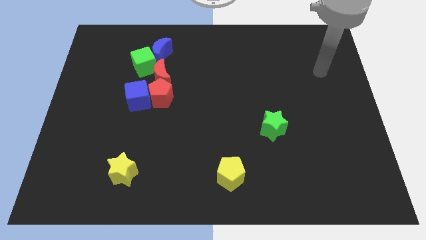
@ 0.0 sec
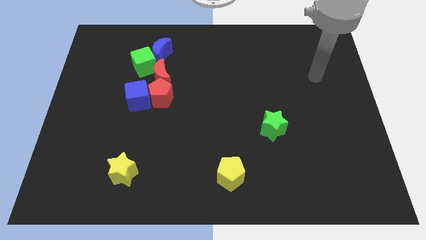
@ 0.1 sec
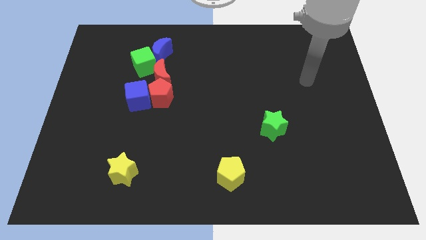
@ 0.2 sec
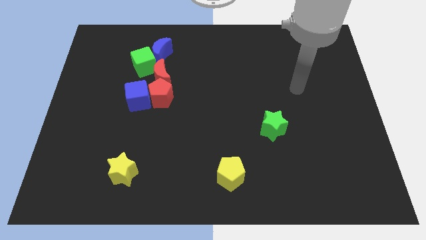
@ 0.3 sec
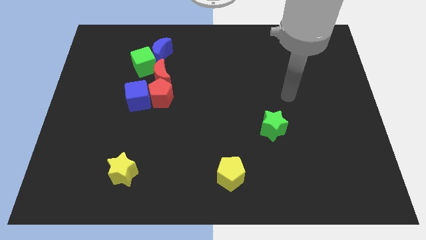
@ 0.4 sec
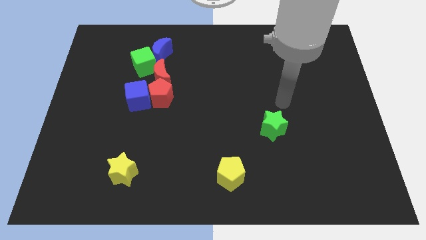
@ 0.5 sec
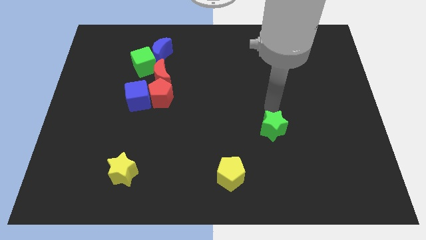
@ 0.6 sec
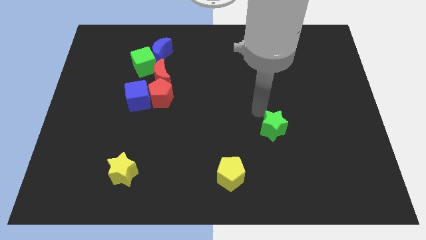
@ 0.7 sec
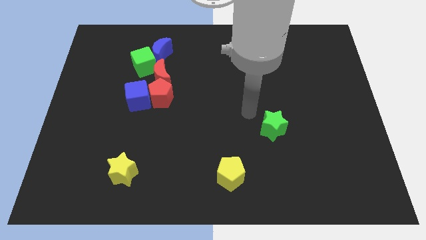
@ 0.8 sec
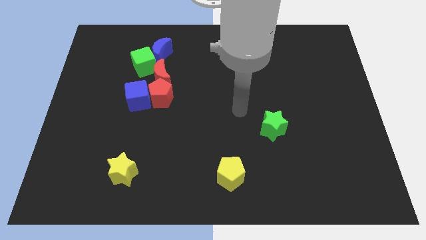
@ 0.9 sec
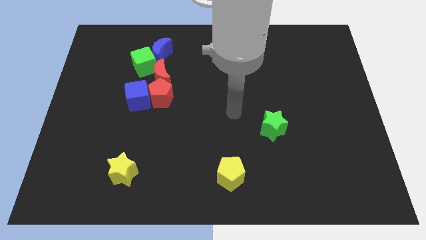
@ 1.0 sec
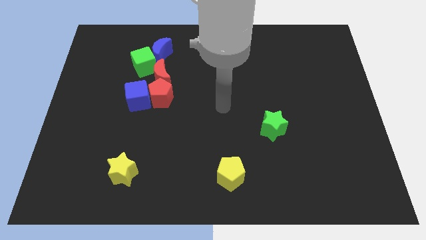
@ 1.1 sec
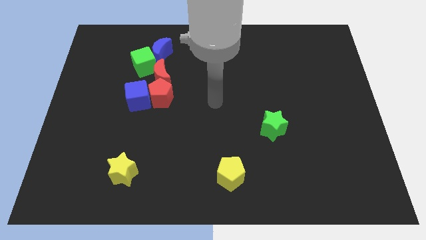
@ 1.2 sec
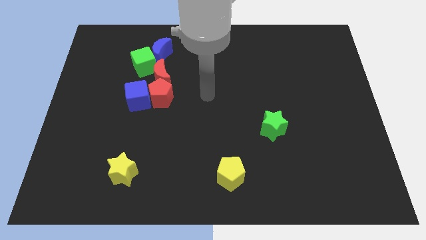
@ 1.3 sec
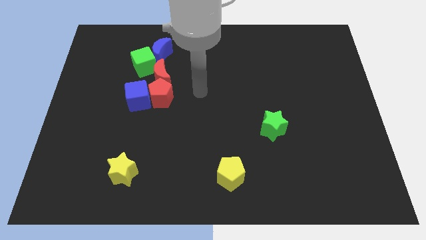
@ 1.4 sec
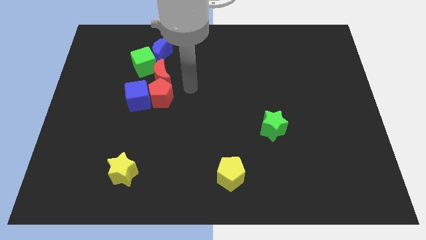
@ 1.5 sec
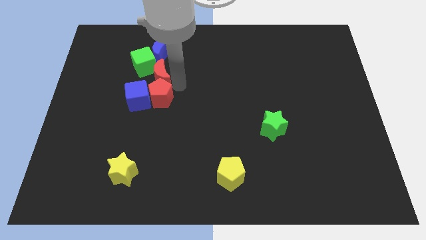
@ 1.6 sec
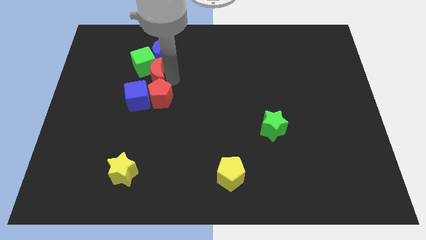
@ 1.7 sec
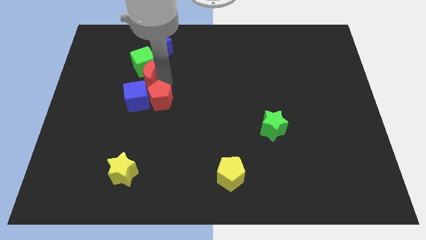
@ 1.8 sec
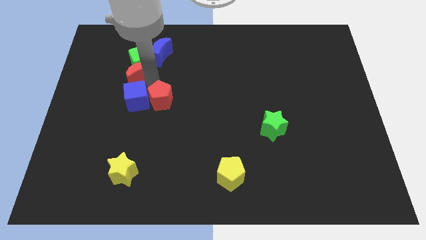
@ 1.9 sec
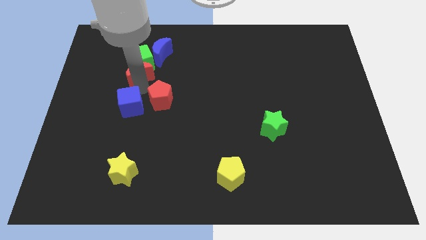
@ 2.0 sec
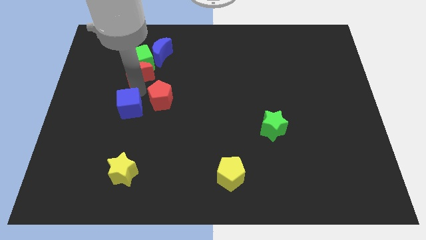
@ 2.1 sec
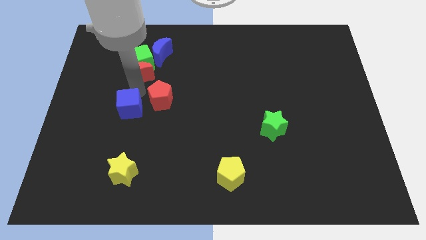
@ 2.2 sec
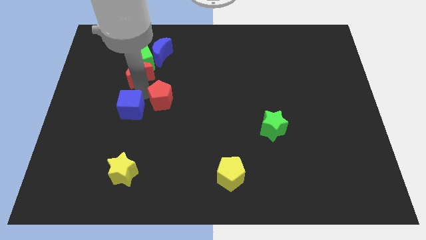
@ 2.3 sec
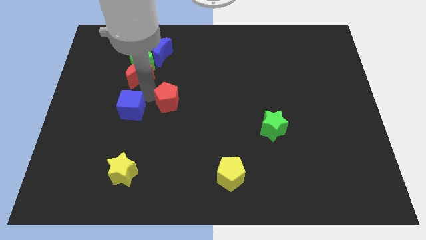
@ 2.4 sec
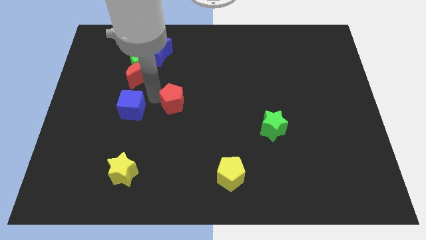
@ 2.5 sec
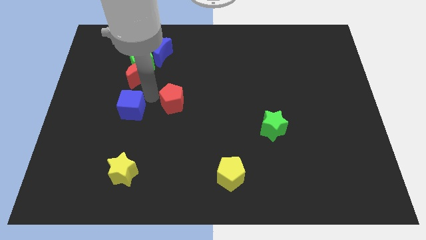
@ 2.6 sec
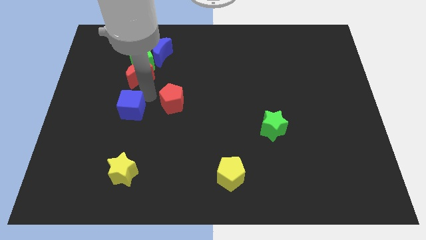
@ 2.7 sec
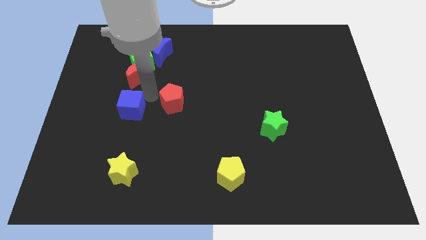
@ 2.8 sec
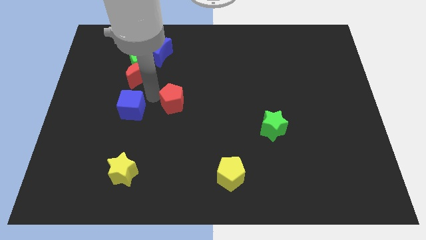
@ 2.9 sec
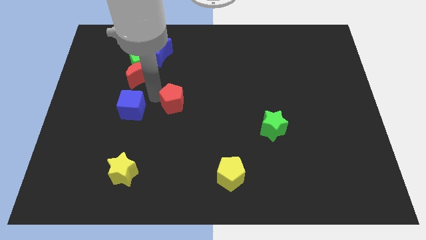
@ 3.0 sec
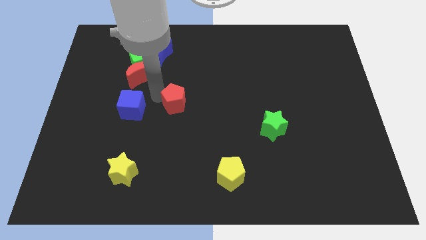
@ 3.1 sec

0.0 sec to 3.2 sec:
pull the red pentagon apart from the blue cube and red moon

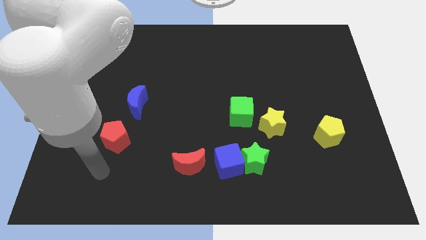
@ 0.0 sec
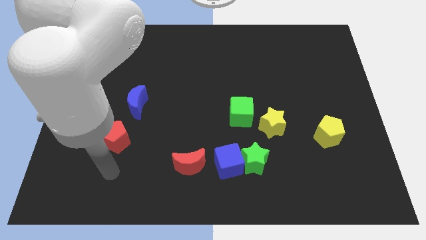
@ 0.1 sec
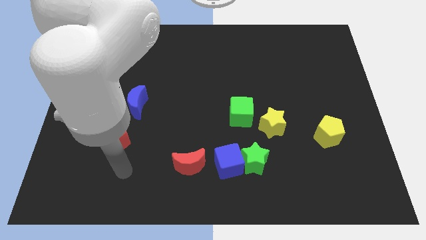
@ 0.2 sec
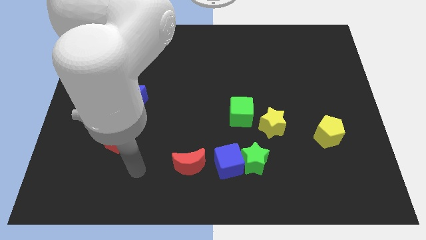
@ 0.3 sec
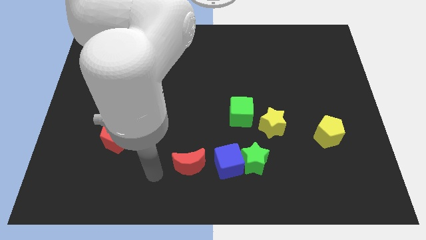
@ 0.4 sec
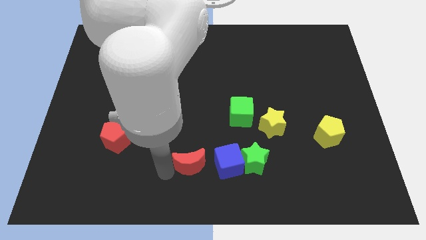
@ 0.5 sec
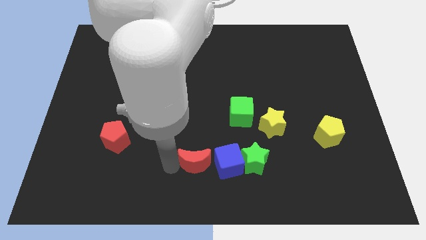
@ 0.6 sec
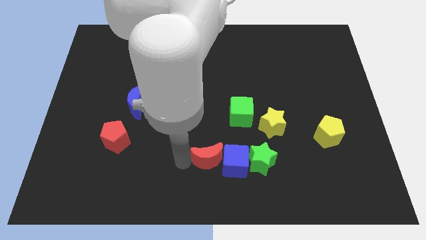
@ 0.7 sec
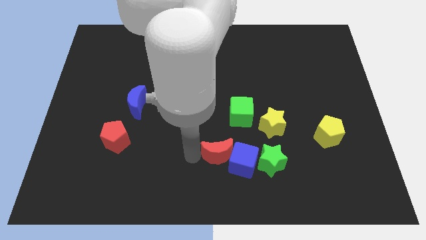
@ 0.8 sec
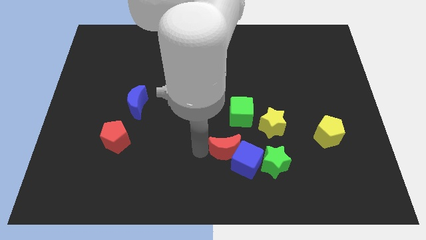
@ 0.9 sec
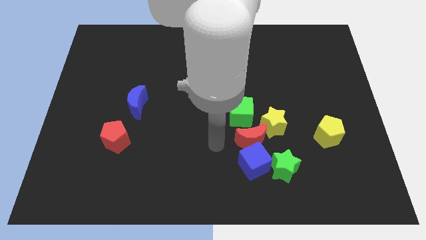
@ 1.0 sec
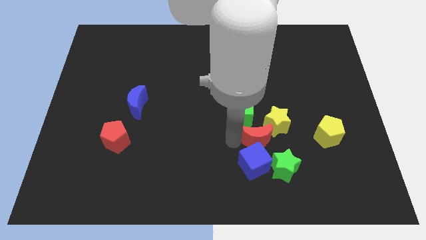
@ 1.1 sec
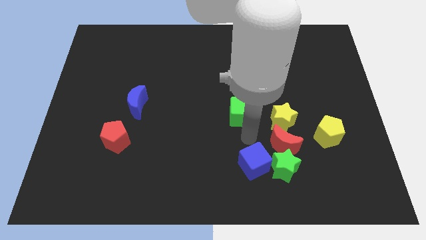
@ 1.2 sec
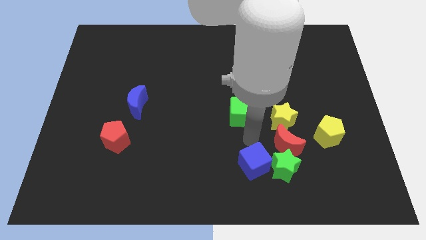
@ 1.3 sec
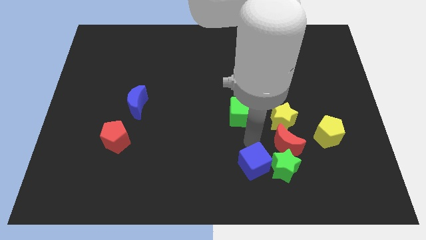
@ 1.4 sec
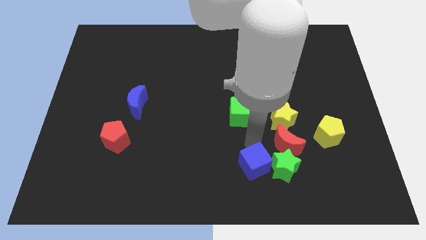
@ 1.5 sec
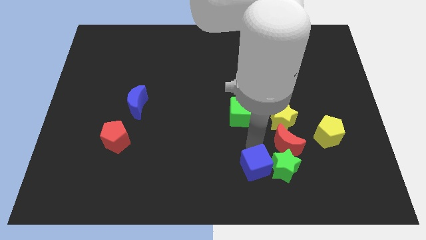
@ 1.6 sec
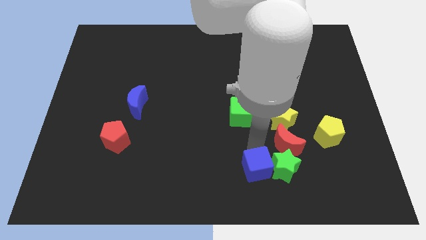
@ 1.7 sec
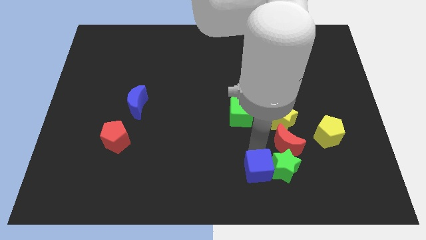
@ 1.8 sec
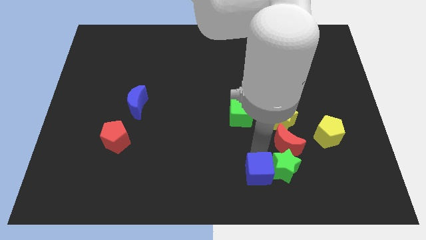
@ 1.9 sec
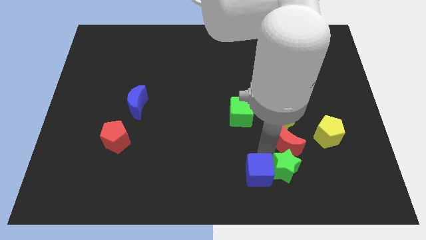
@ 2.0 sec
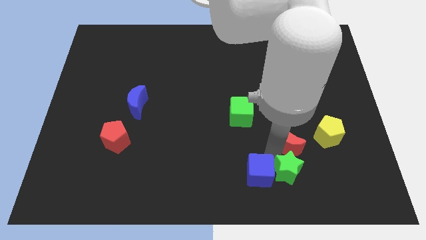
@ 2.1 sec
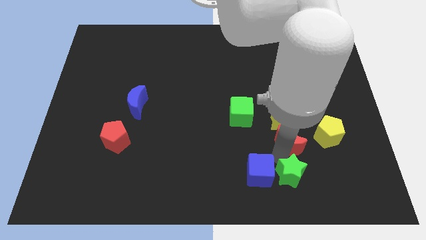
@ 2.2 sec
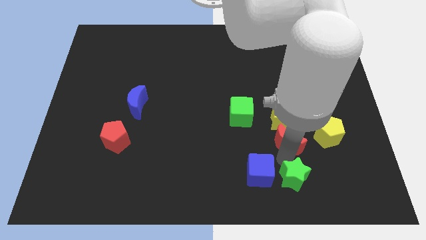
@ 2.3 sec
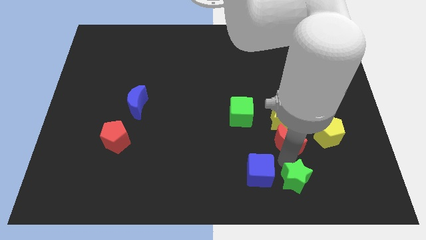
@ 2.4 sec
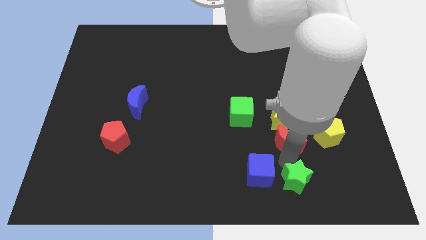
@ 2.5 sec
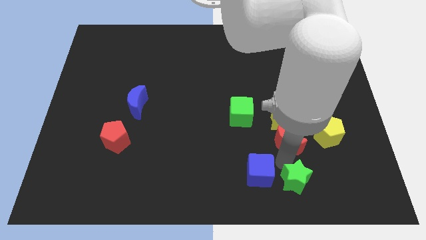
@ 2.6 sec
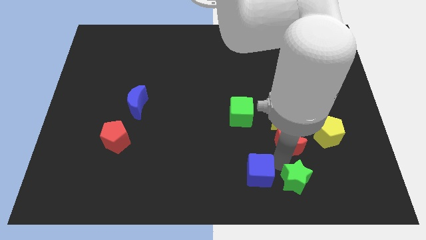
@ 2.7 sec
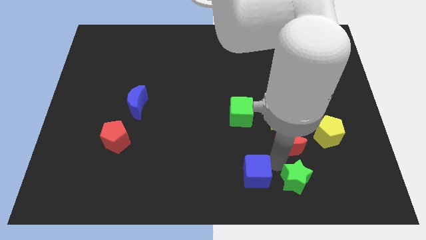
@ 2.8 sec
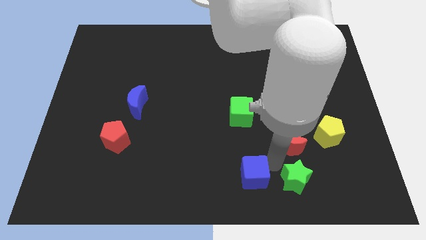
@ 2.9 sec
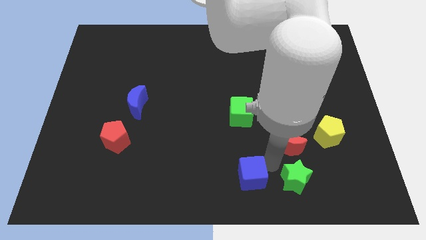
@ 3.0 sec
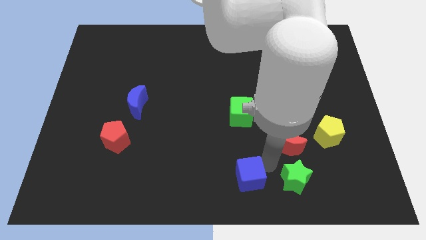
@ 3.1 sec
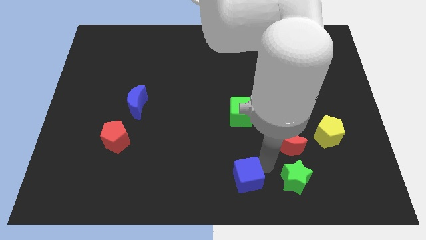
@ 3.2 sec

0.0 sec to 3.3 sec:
move the blue cube away from the green star and red moon

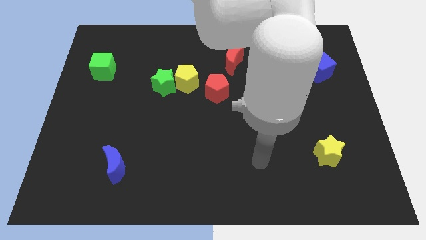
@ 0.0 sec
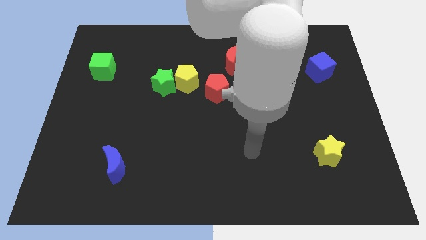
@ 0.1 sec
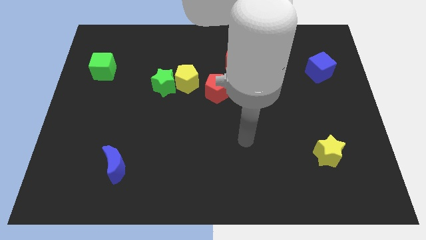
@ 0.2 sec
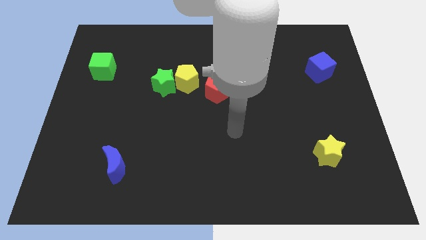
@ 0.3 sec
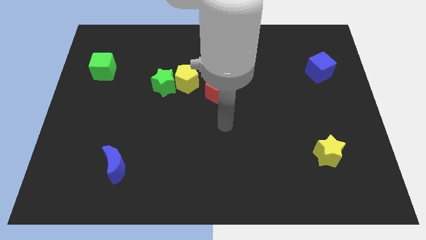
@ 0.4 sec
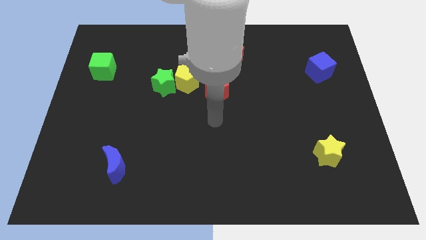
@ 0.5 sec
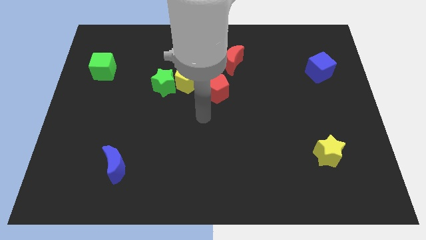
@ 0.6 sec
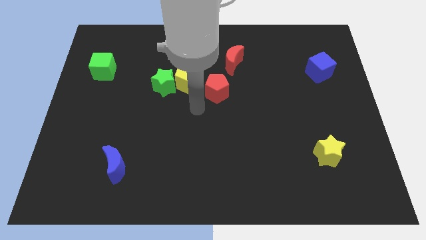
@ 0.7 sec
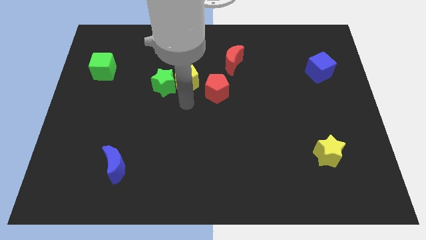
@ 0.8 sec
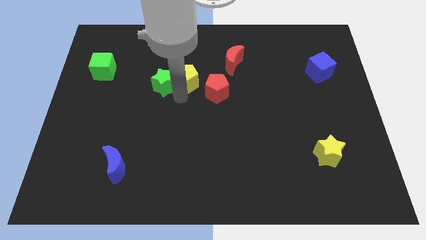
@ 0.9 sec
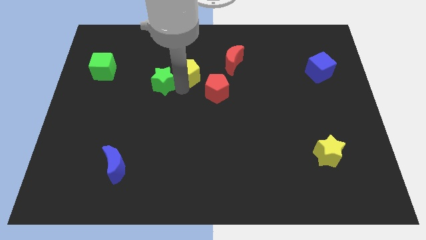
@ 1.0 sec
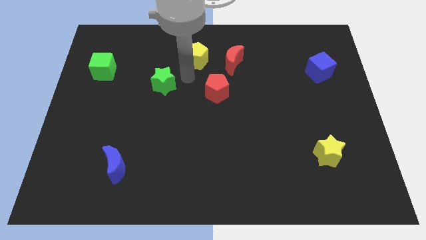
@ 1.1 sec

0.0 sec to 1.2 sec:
pull the green star apart from the yellow pentagon

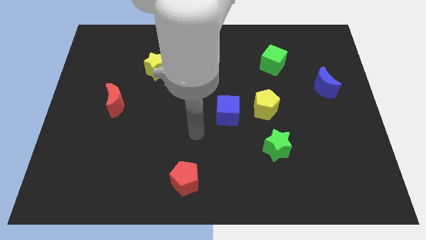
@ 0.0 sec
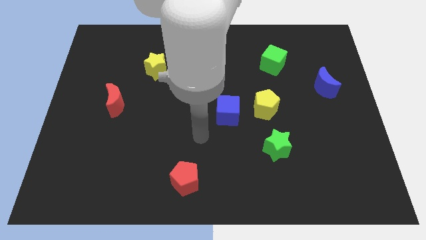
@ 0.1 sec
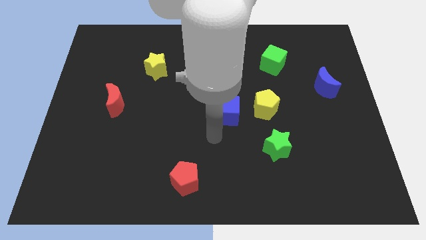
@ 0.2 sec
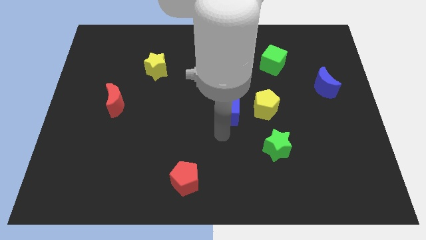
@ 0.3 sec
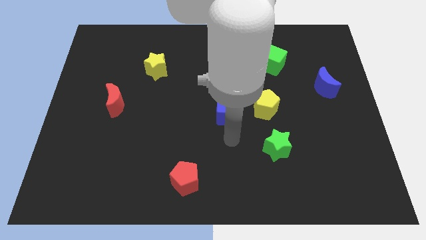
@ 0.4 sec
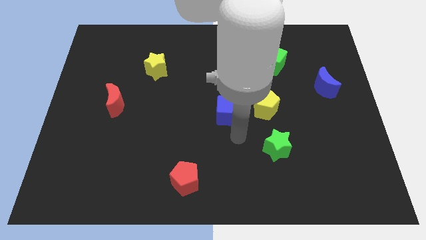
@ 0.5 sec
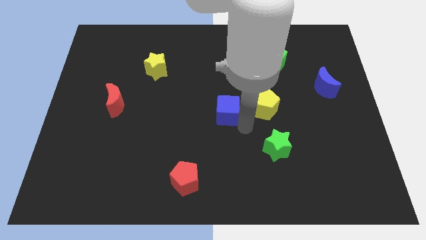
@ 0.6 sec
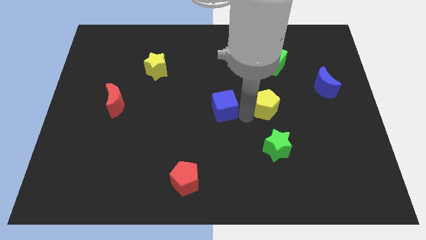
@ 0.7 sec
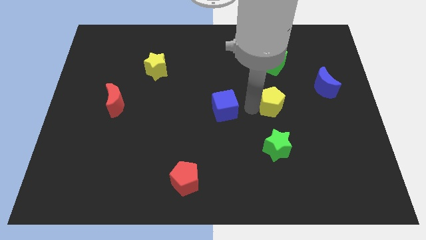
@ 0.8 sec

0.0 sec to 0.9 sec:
pull the blue cube apart from the yellow pentagon

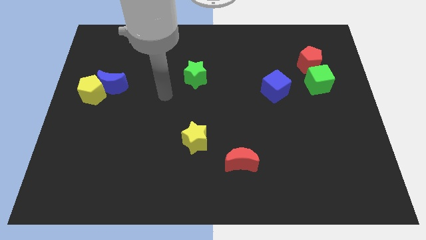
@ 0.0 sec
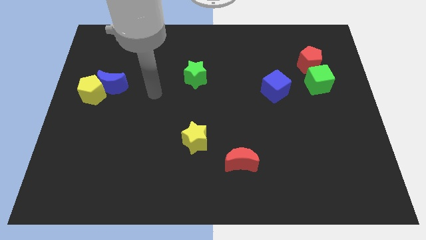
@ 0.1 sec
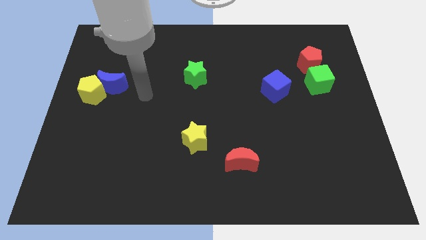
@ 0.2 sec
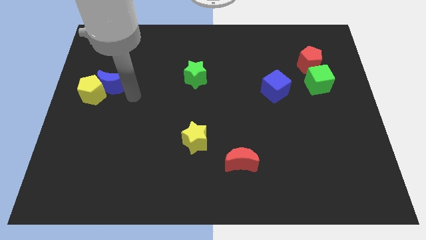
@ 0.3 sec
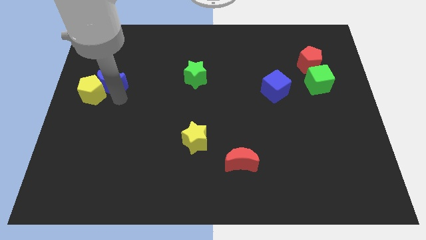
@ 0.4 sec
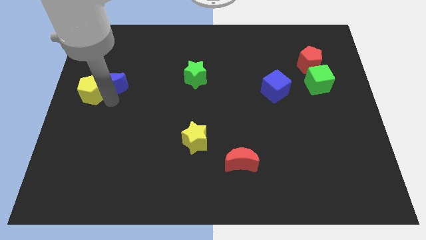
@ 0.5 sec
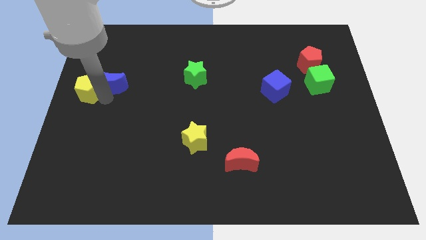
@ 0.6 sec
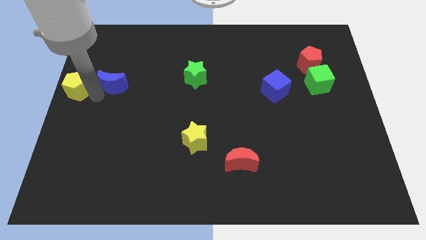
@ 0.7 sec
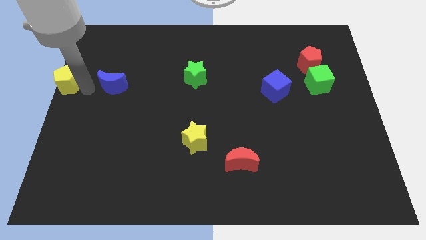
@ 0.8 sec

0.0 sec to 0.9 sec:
pull the blue moon apart from the yellow pentagon
